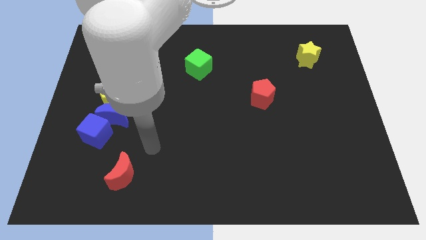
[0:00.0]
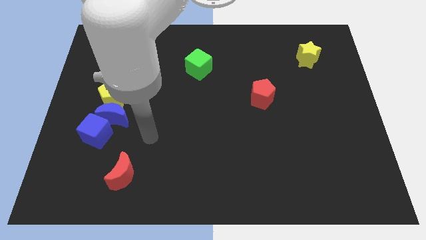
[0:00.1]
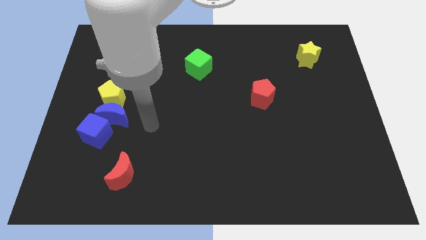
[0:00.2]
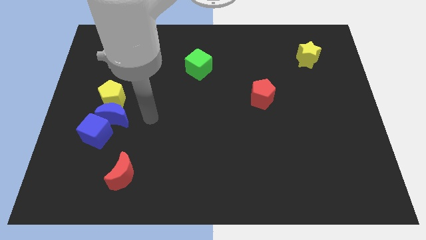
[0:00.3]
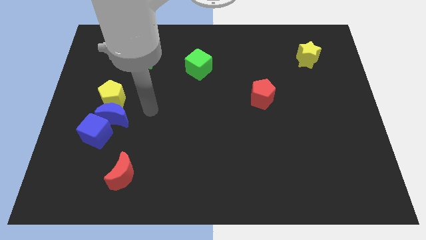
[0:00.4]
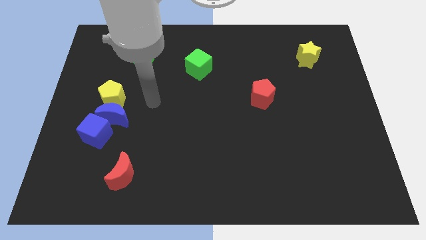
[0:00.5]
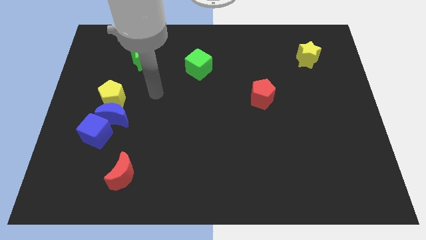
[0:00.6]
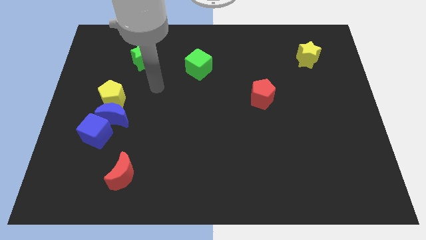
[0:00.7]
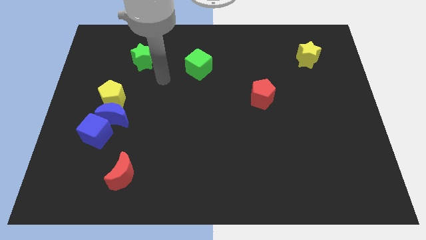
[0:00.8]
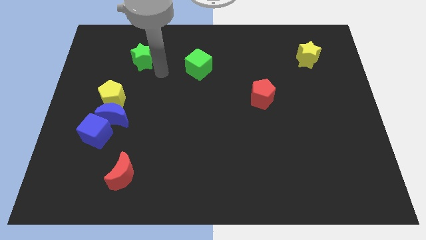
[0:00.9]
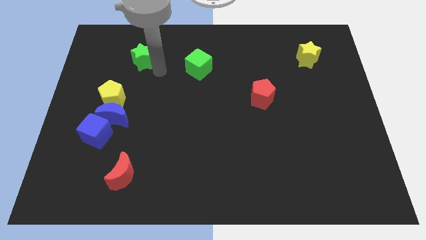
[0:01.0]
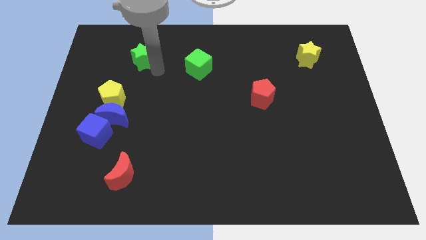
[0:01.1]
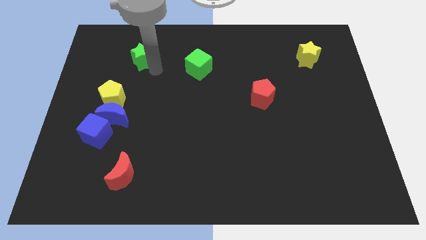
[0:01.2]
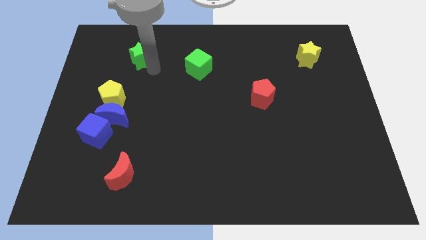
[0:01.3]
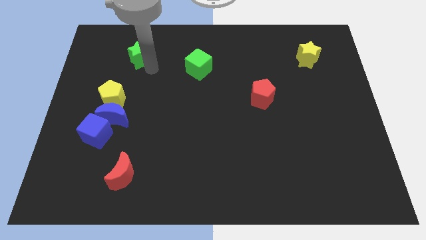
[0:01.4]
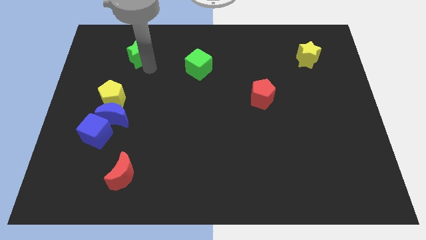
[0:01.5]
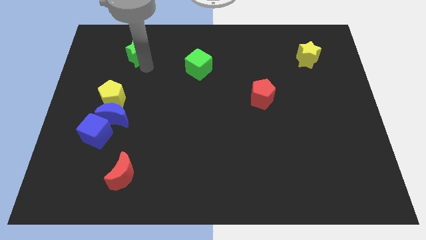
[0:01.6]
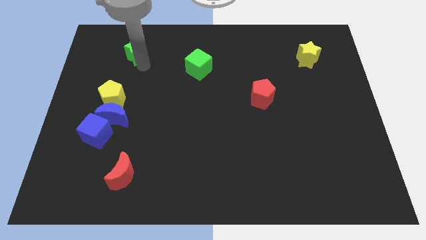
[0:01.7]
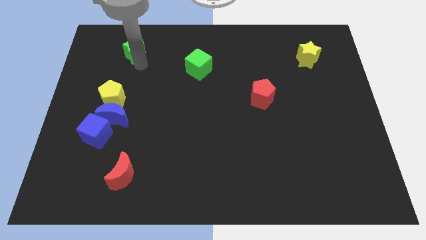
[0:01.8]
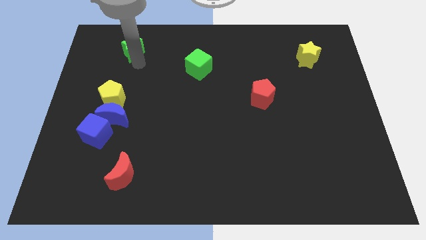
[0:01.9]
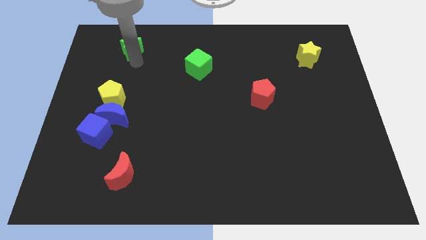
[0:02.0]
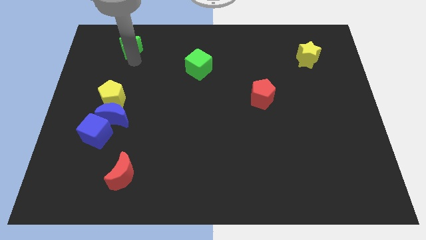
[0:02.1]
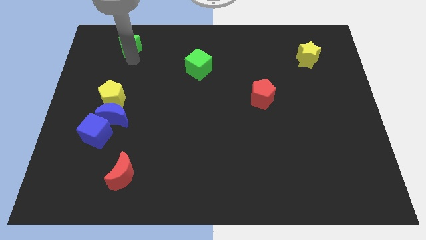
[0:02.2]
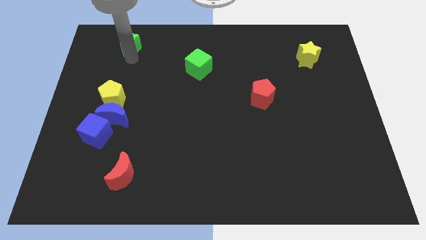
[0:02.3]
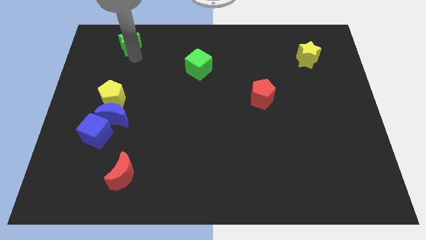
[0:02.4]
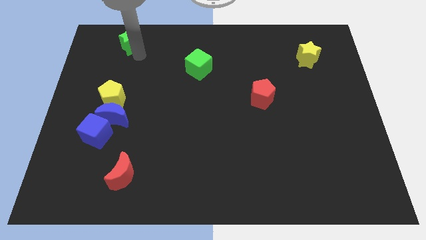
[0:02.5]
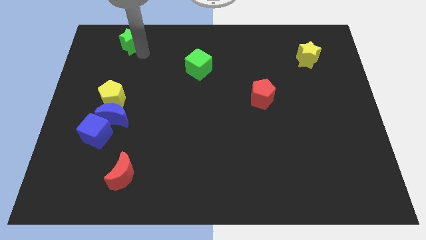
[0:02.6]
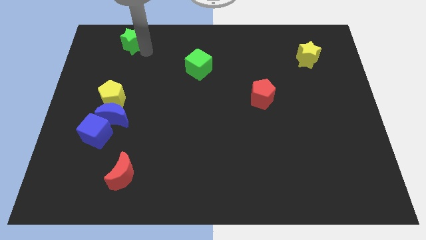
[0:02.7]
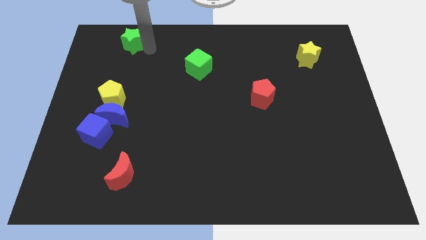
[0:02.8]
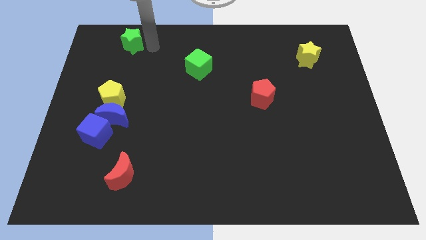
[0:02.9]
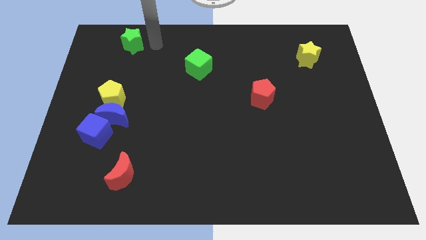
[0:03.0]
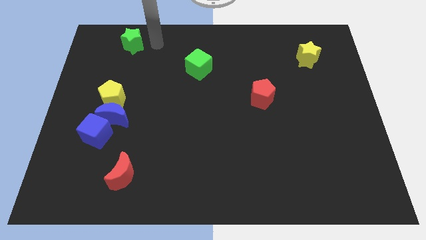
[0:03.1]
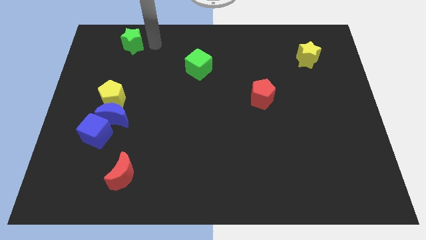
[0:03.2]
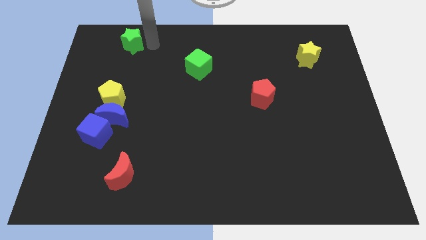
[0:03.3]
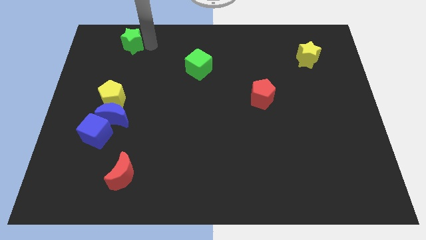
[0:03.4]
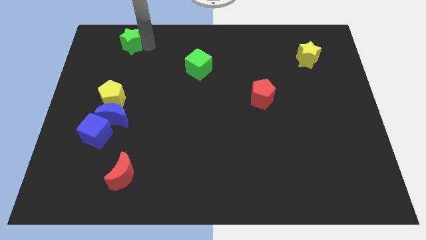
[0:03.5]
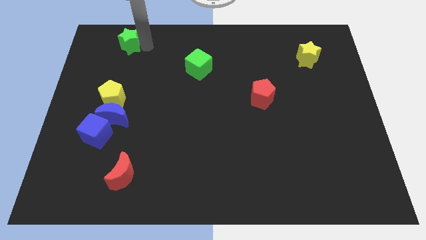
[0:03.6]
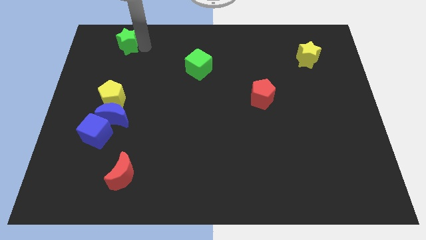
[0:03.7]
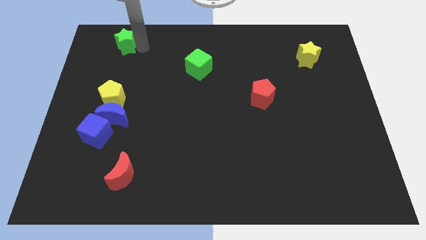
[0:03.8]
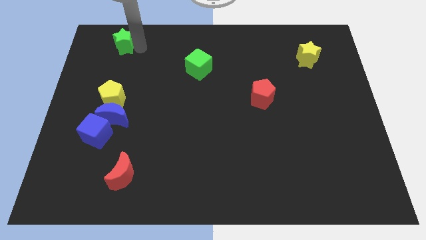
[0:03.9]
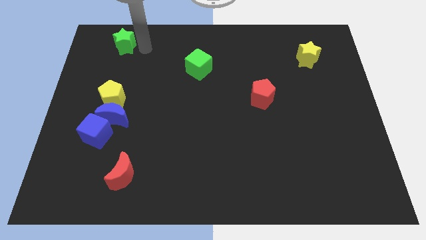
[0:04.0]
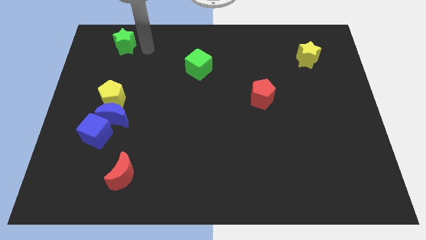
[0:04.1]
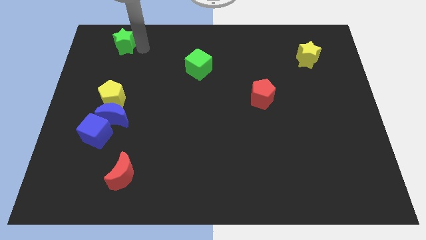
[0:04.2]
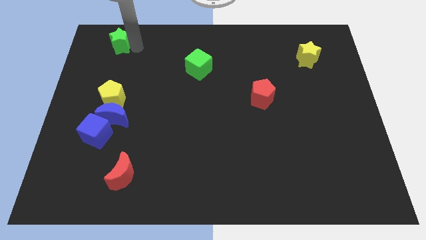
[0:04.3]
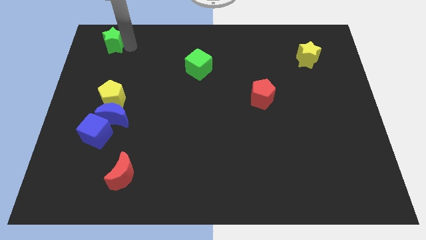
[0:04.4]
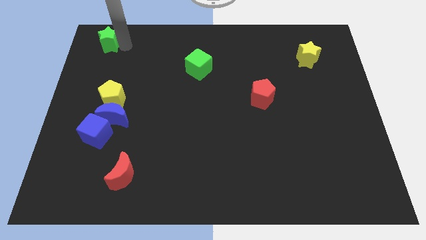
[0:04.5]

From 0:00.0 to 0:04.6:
move the green star to the upper left corner

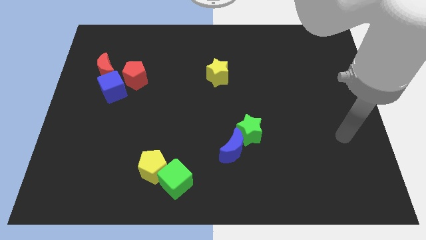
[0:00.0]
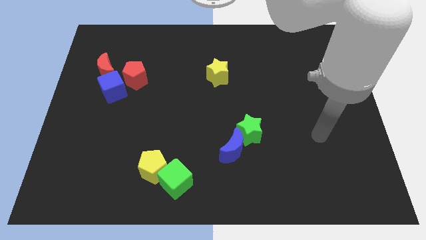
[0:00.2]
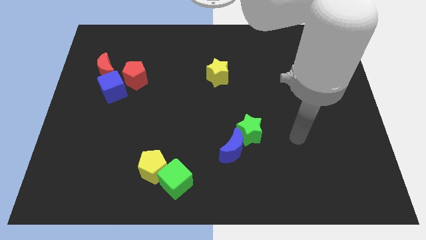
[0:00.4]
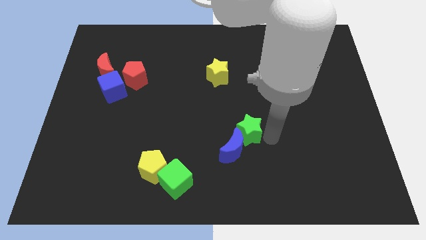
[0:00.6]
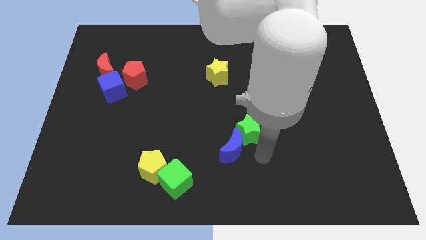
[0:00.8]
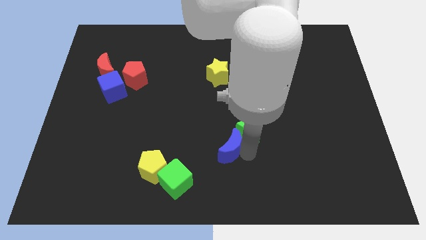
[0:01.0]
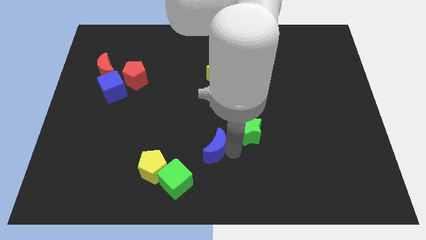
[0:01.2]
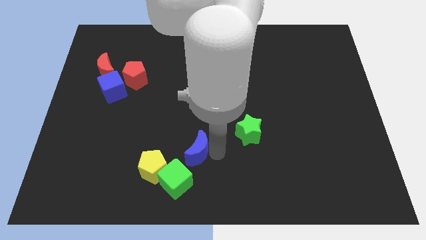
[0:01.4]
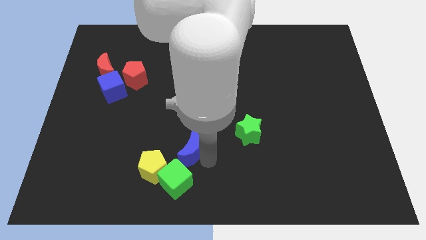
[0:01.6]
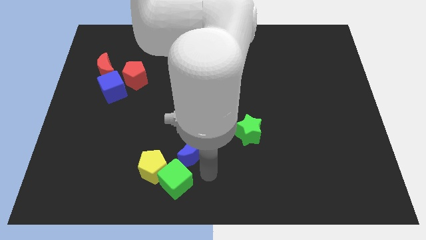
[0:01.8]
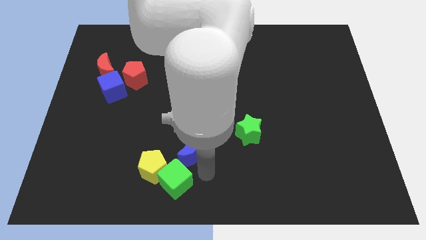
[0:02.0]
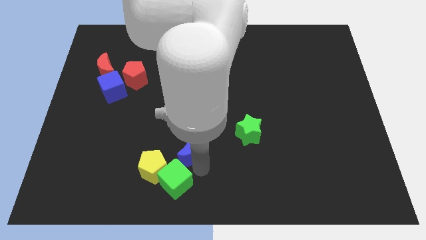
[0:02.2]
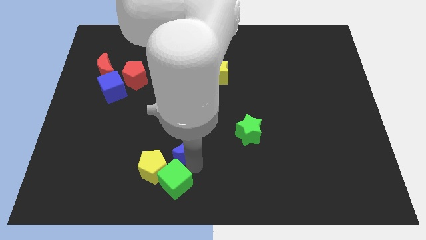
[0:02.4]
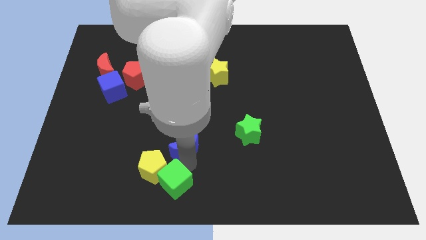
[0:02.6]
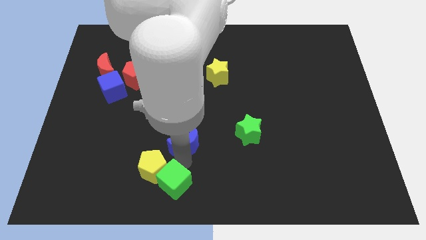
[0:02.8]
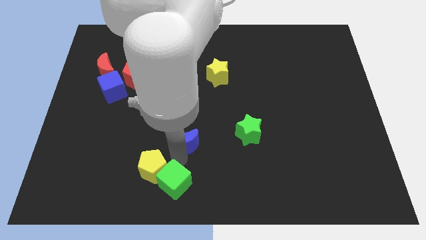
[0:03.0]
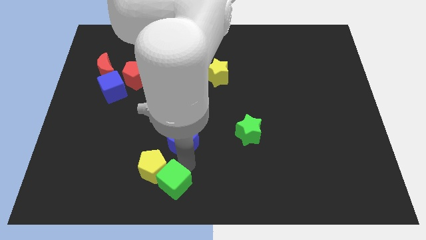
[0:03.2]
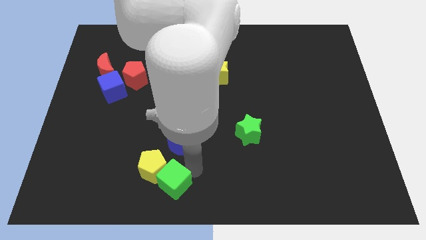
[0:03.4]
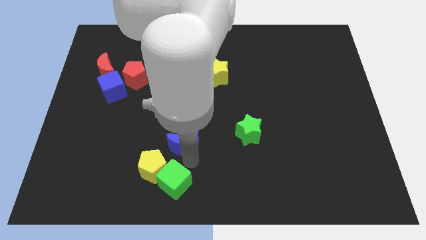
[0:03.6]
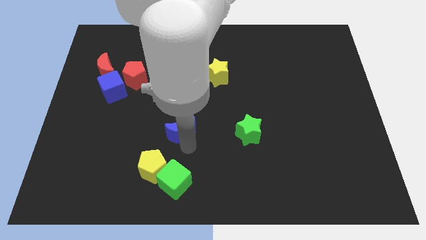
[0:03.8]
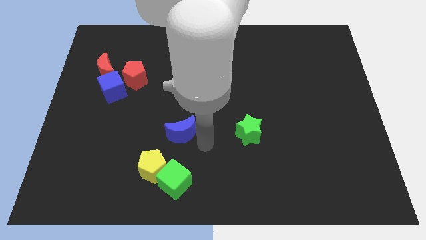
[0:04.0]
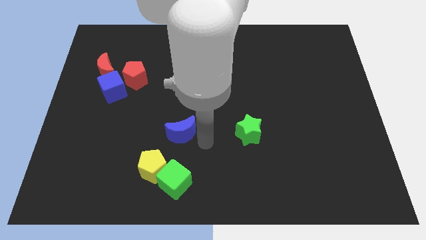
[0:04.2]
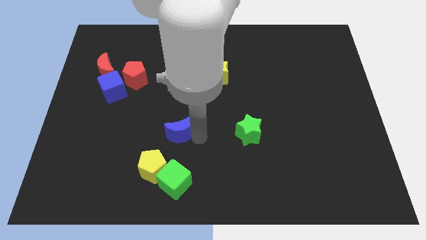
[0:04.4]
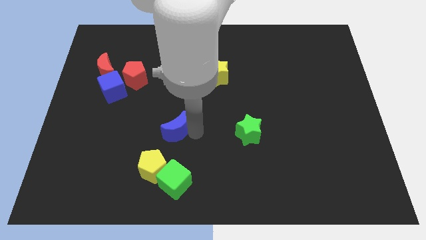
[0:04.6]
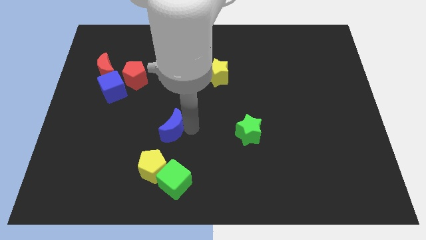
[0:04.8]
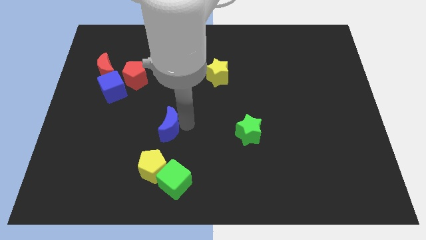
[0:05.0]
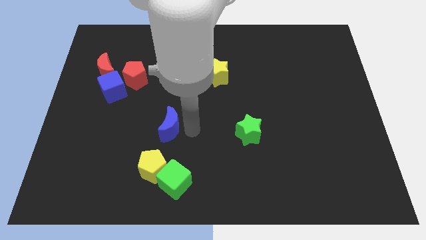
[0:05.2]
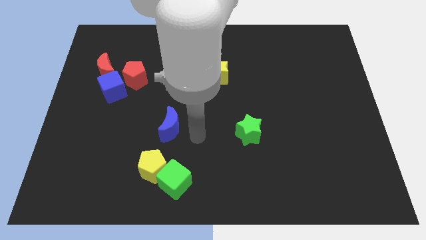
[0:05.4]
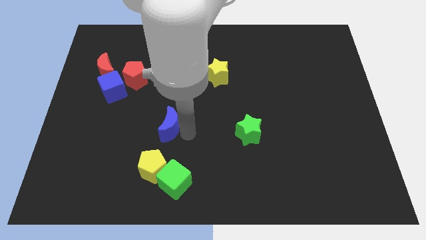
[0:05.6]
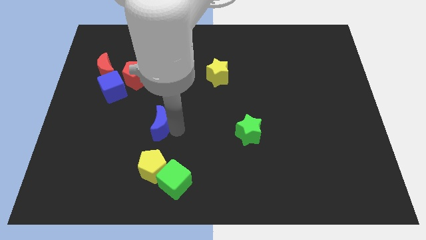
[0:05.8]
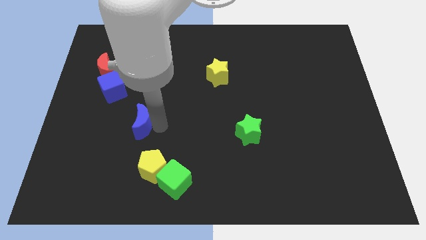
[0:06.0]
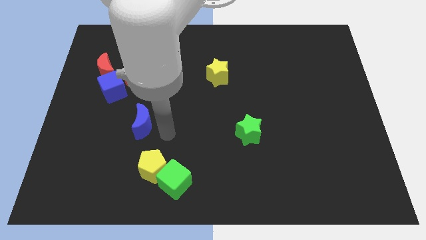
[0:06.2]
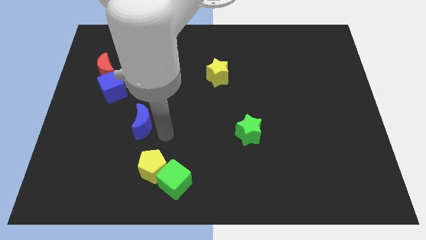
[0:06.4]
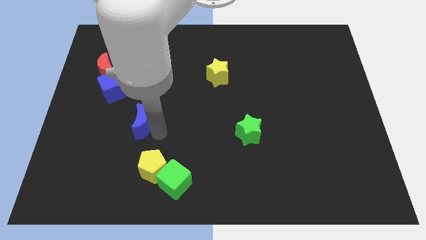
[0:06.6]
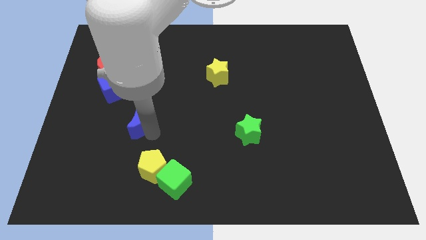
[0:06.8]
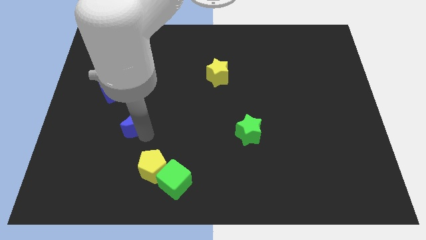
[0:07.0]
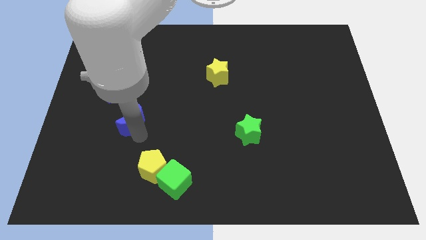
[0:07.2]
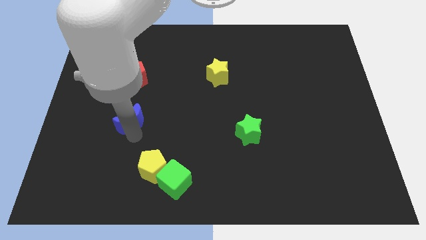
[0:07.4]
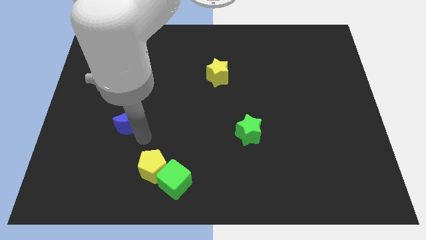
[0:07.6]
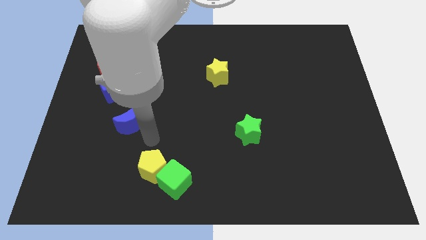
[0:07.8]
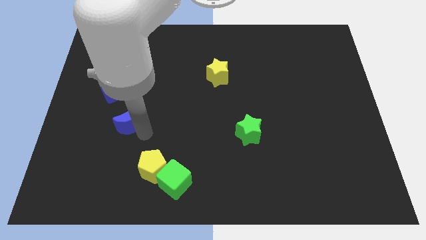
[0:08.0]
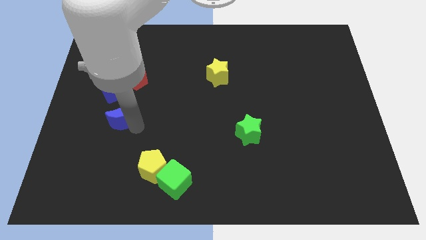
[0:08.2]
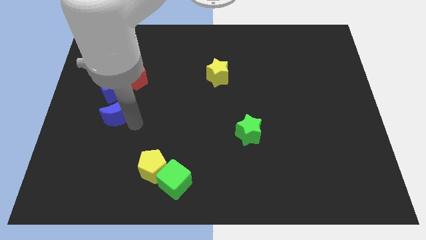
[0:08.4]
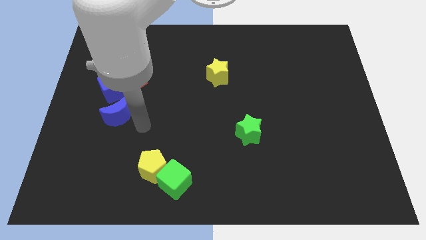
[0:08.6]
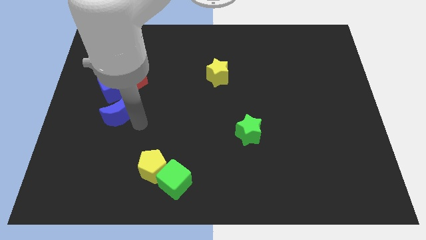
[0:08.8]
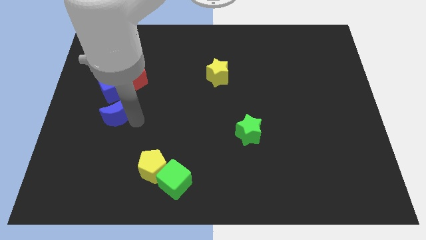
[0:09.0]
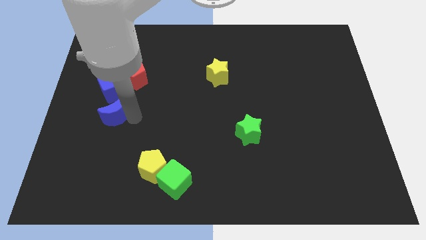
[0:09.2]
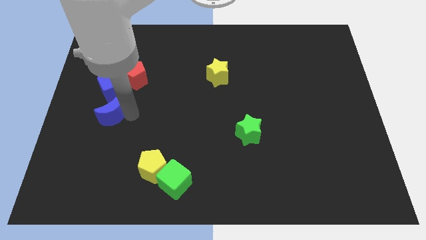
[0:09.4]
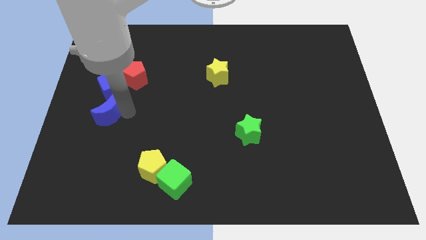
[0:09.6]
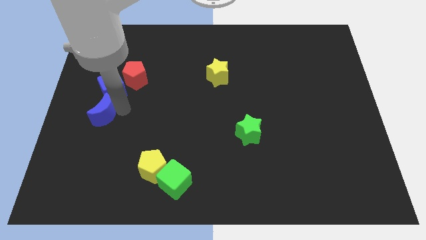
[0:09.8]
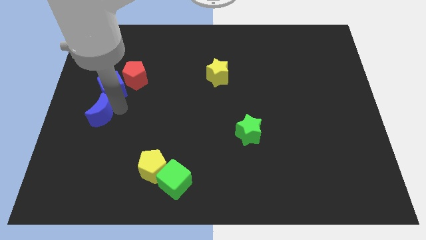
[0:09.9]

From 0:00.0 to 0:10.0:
move the blue moon to the left side of the board
